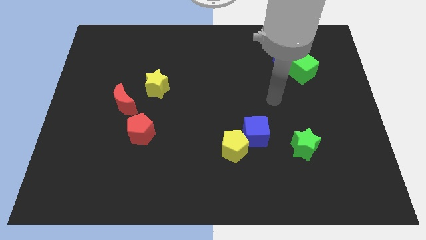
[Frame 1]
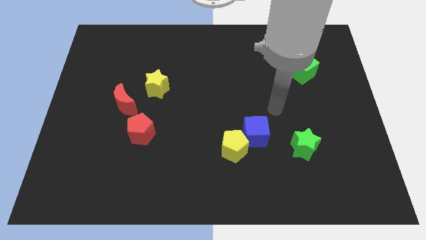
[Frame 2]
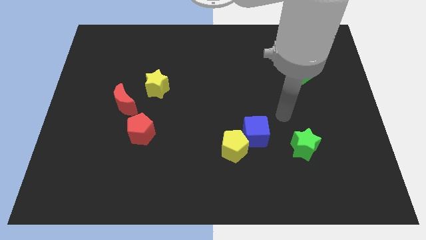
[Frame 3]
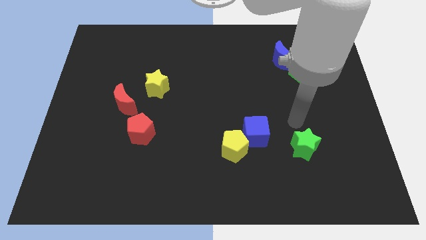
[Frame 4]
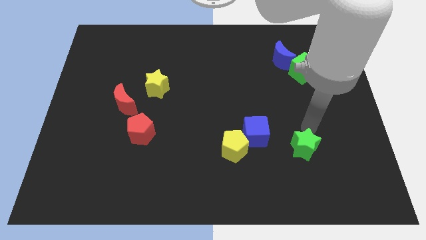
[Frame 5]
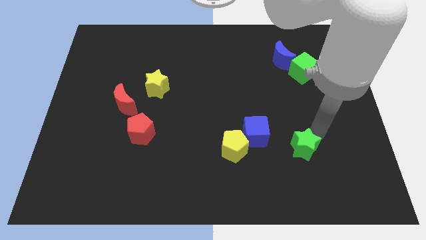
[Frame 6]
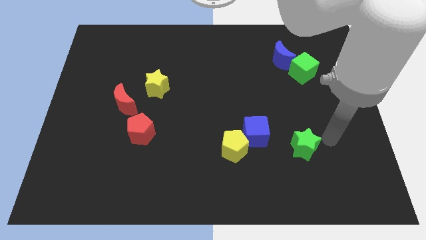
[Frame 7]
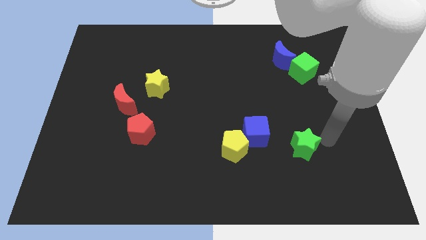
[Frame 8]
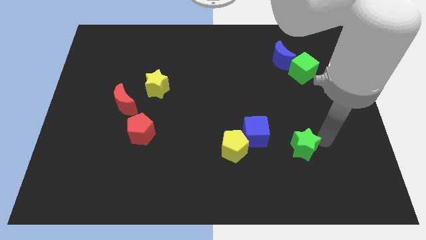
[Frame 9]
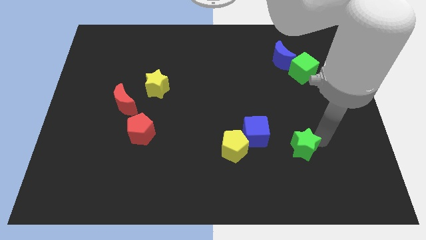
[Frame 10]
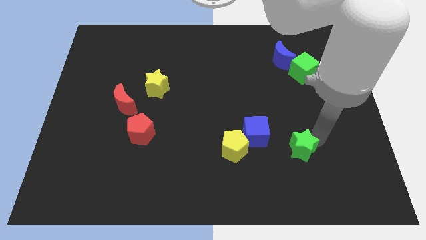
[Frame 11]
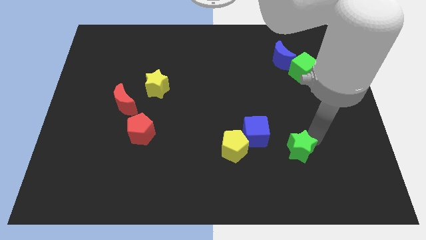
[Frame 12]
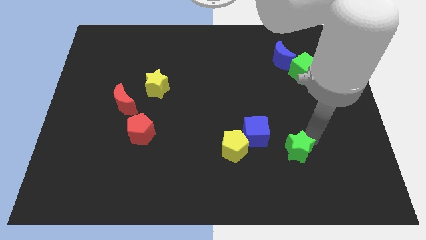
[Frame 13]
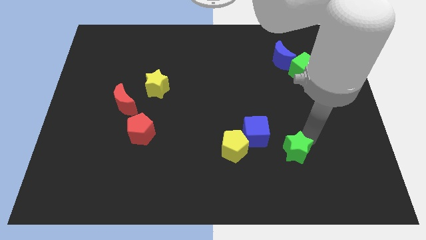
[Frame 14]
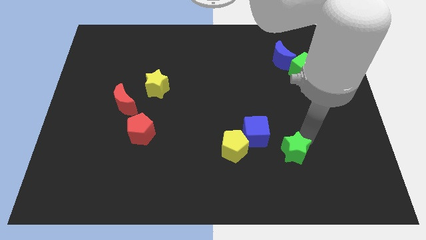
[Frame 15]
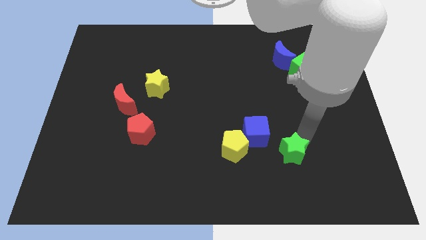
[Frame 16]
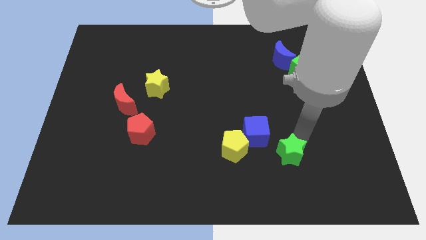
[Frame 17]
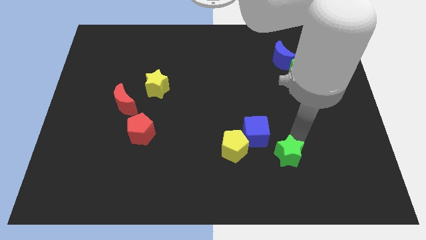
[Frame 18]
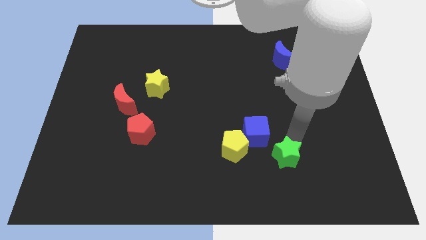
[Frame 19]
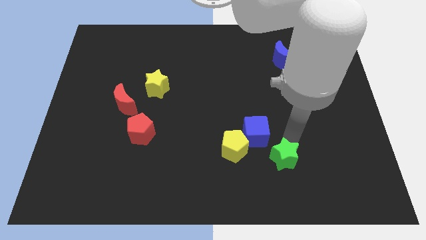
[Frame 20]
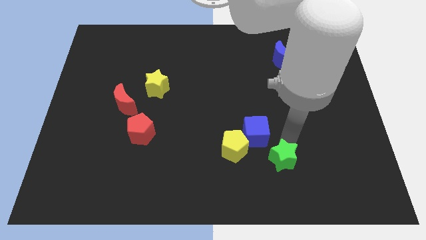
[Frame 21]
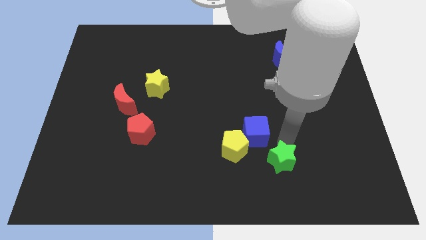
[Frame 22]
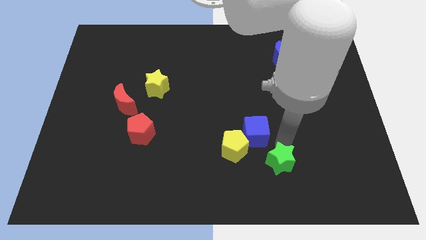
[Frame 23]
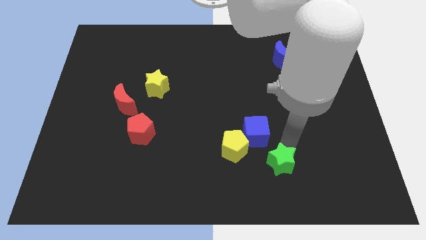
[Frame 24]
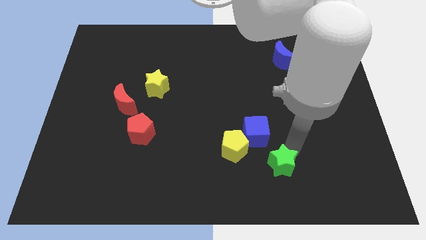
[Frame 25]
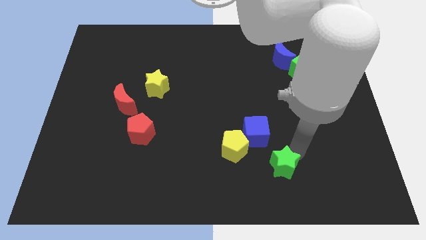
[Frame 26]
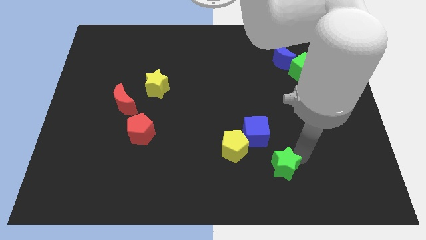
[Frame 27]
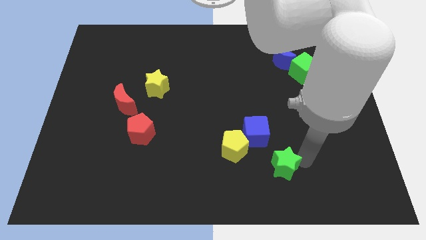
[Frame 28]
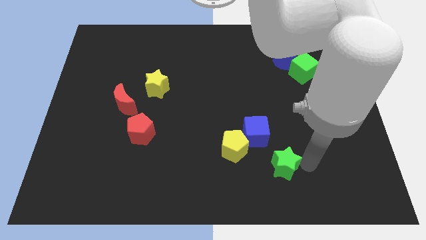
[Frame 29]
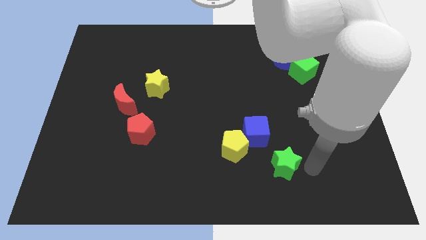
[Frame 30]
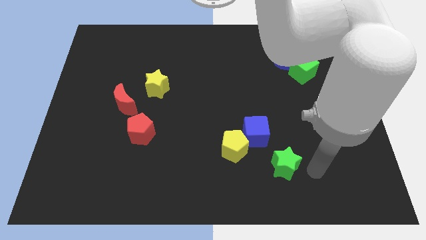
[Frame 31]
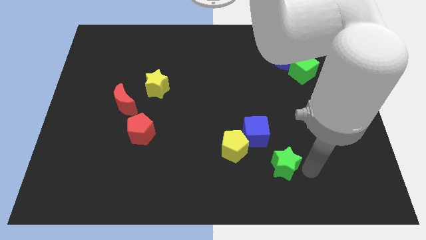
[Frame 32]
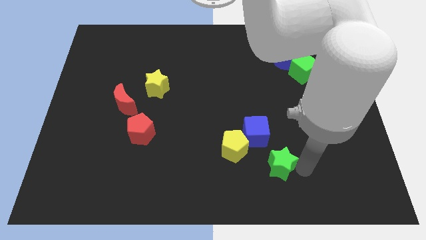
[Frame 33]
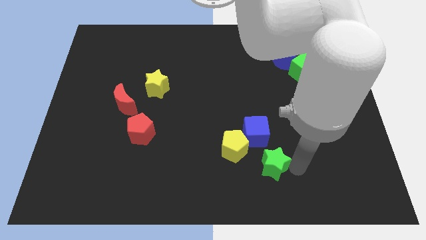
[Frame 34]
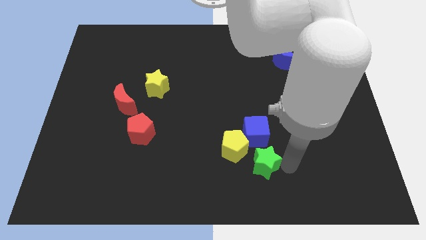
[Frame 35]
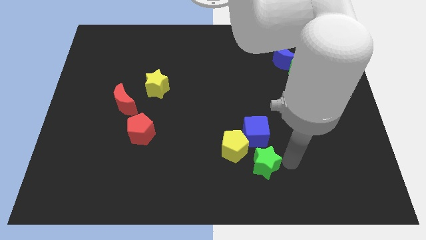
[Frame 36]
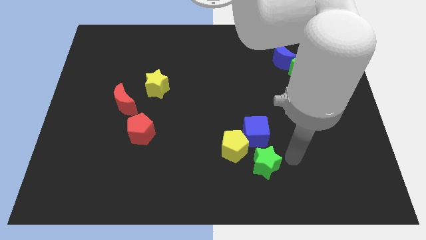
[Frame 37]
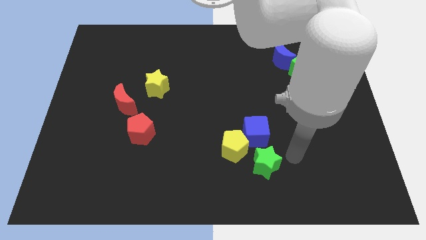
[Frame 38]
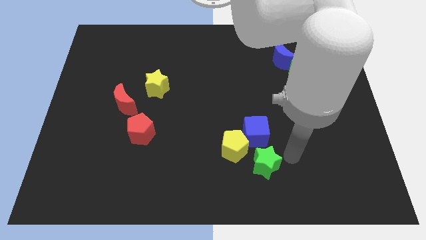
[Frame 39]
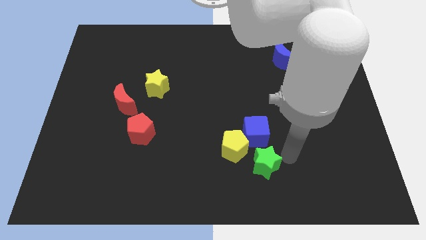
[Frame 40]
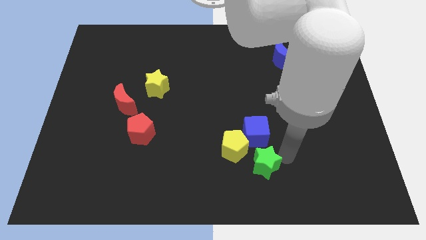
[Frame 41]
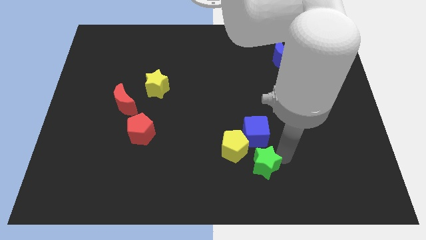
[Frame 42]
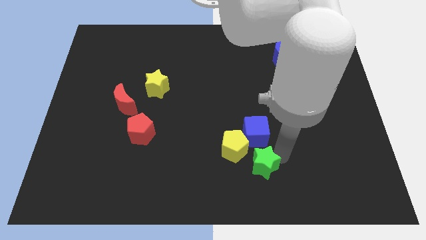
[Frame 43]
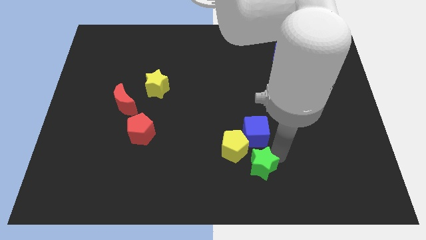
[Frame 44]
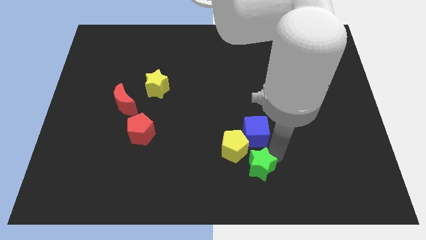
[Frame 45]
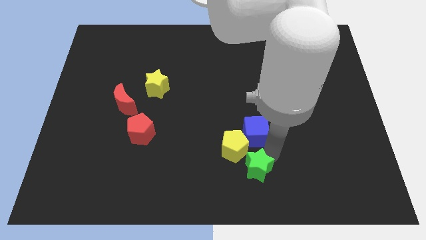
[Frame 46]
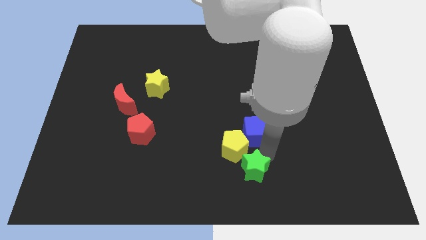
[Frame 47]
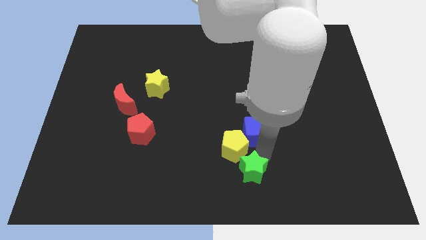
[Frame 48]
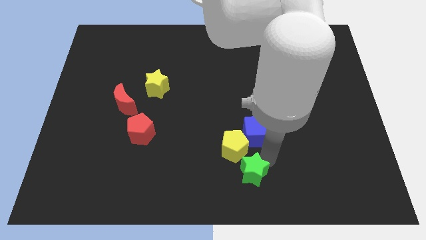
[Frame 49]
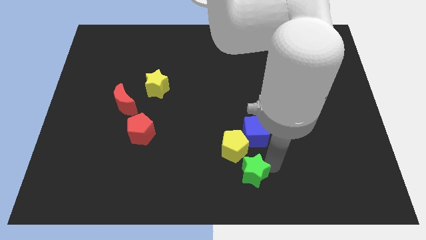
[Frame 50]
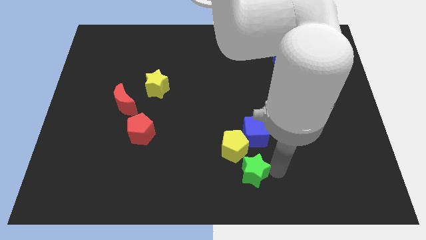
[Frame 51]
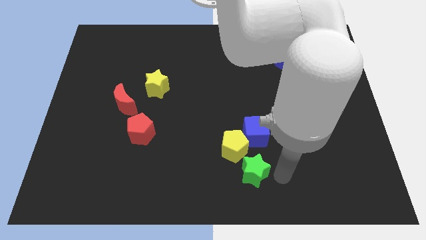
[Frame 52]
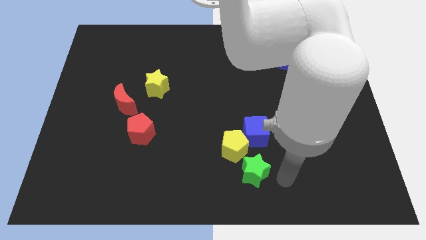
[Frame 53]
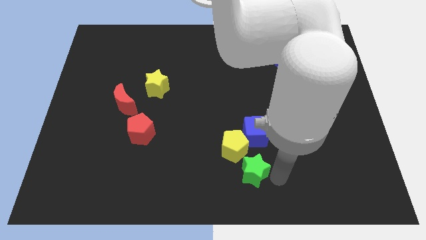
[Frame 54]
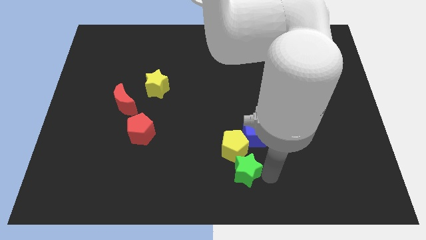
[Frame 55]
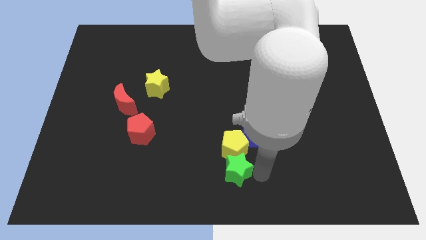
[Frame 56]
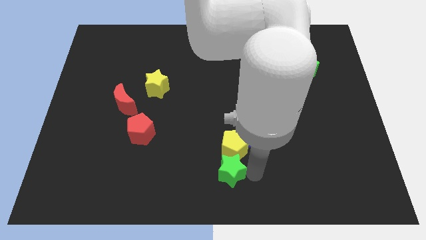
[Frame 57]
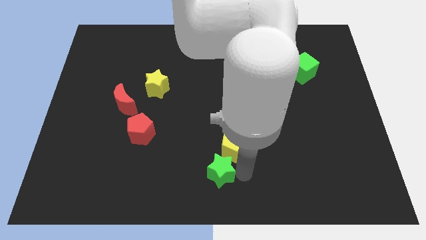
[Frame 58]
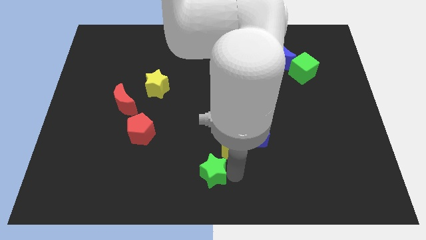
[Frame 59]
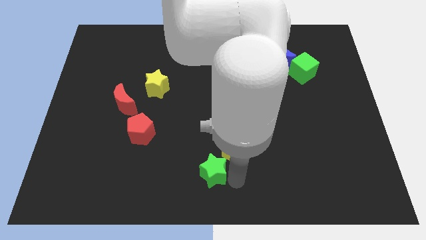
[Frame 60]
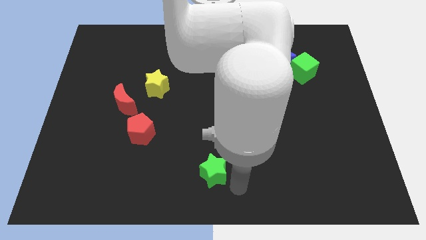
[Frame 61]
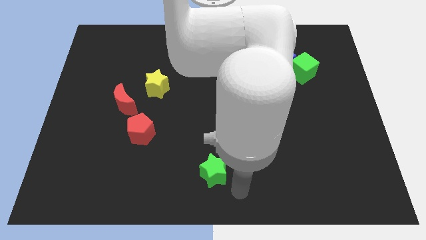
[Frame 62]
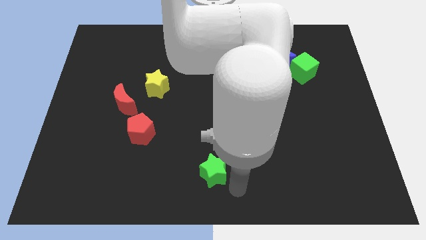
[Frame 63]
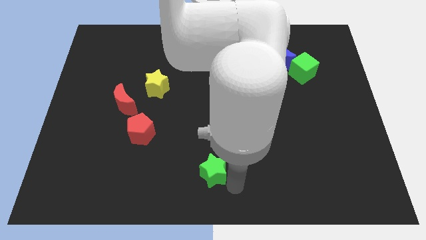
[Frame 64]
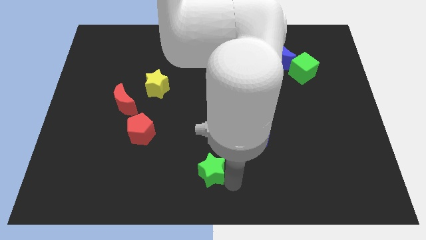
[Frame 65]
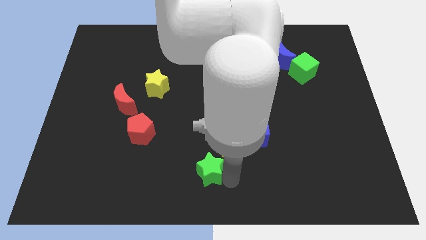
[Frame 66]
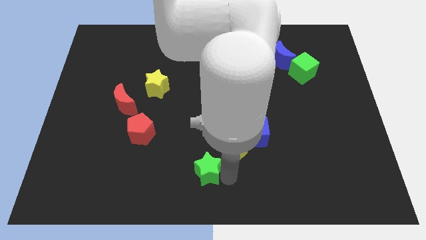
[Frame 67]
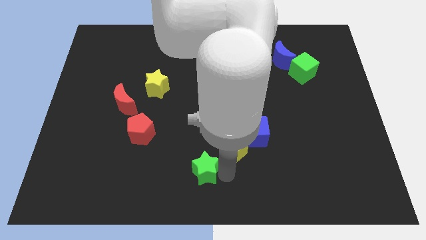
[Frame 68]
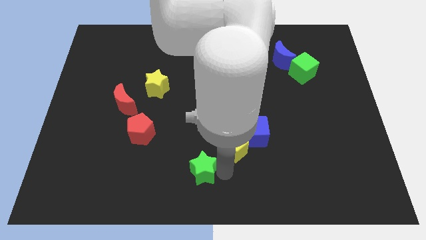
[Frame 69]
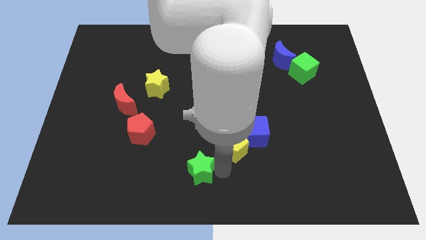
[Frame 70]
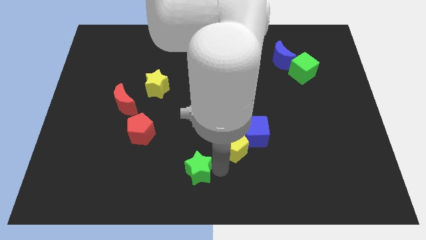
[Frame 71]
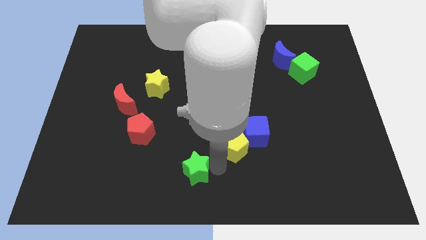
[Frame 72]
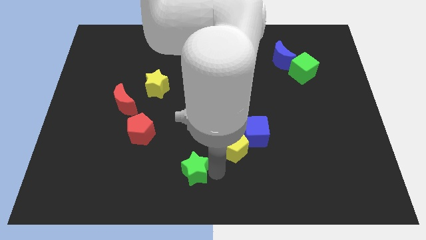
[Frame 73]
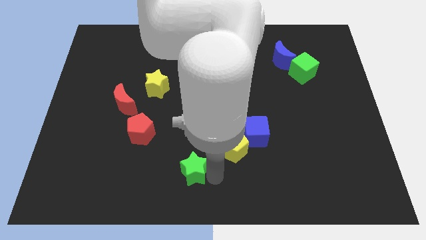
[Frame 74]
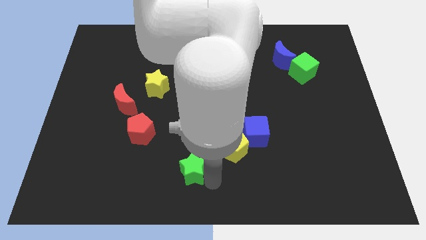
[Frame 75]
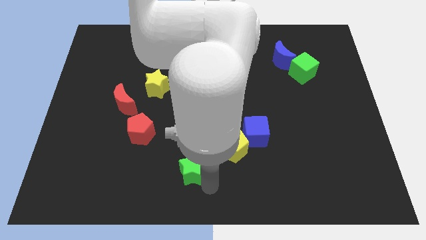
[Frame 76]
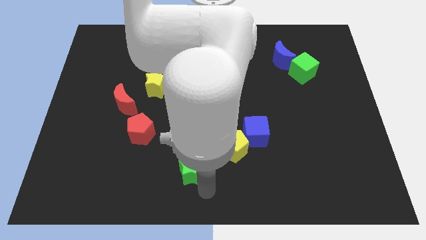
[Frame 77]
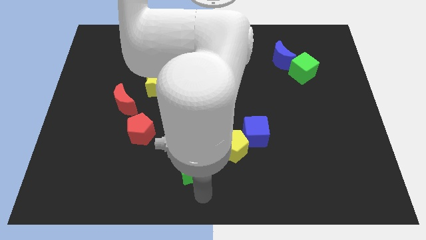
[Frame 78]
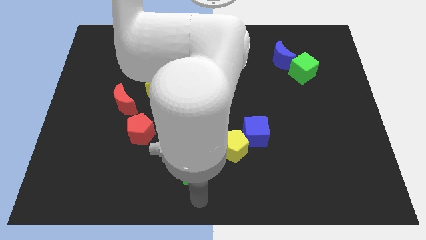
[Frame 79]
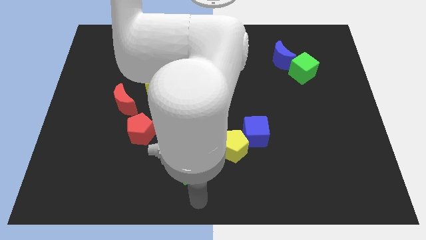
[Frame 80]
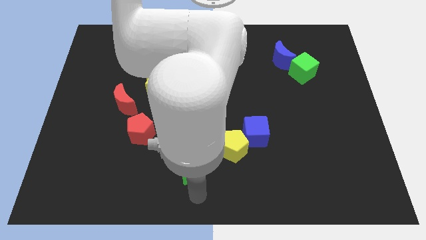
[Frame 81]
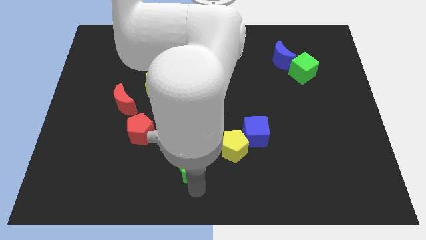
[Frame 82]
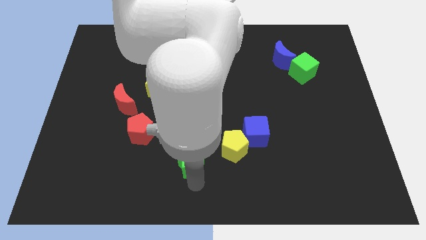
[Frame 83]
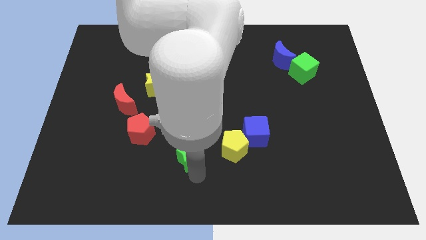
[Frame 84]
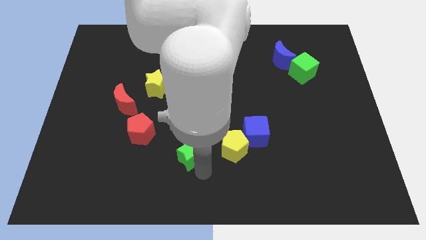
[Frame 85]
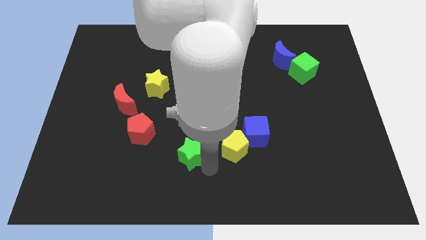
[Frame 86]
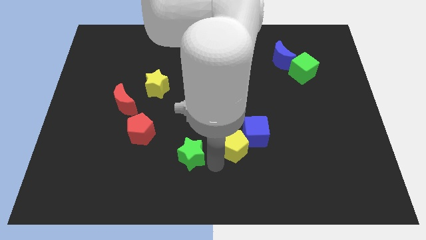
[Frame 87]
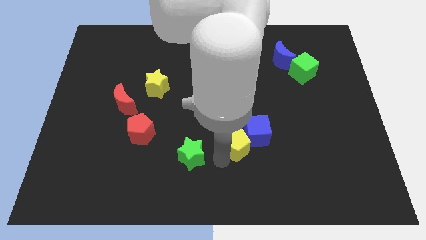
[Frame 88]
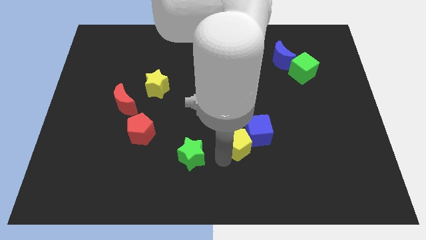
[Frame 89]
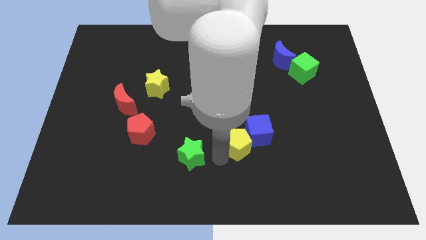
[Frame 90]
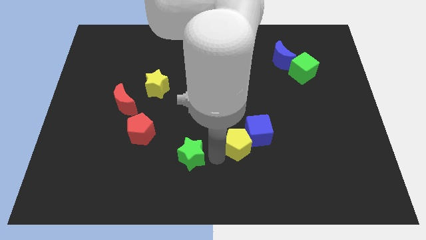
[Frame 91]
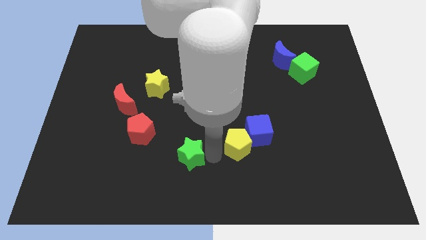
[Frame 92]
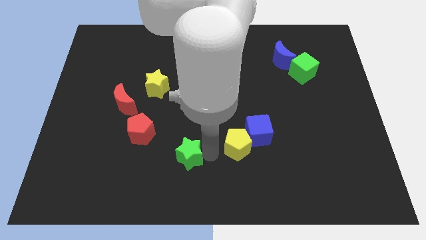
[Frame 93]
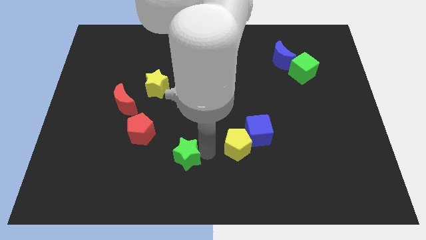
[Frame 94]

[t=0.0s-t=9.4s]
slide the green star diagonally down and to the right of the red pentagon
